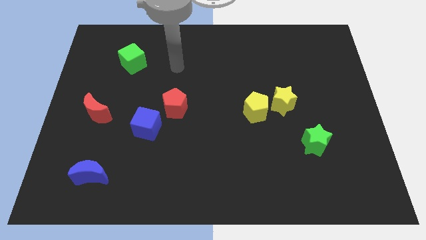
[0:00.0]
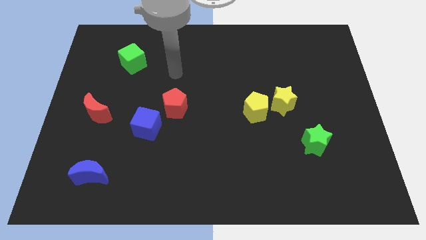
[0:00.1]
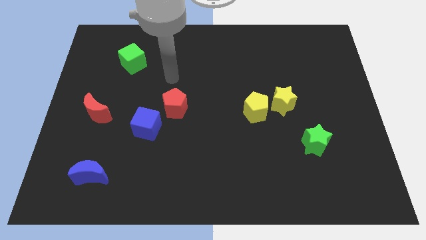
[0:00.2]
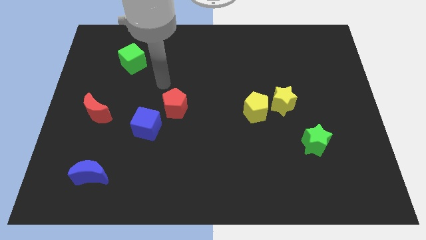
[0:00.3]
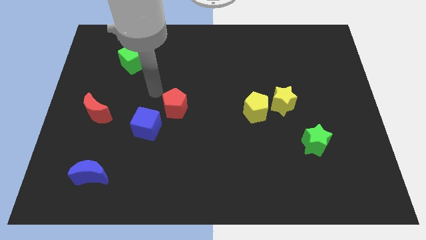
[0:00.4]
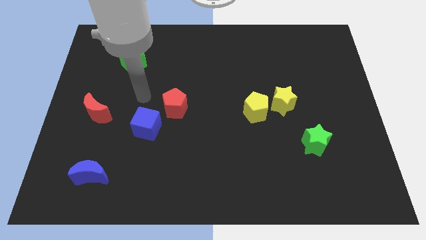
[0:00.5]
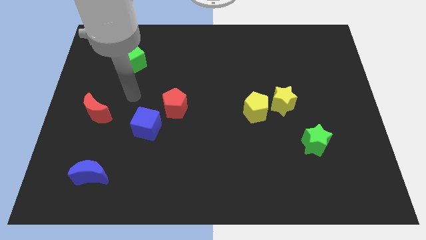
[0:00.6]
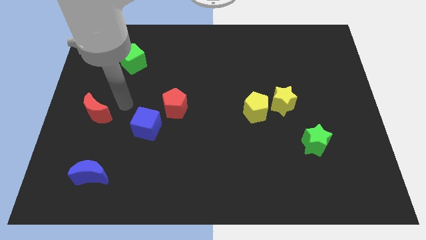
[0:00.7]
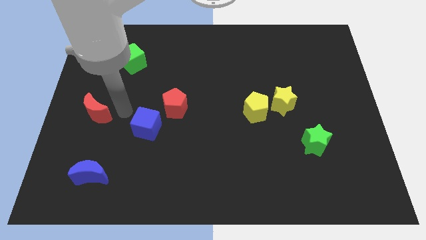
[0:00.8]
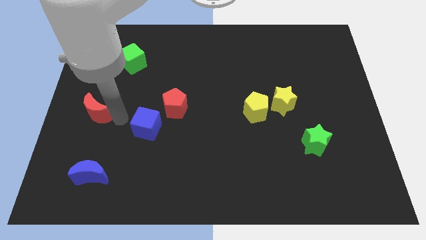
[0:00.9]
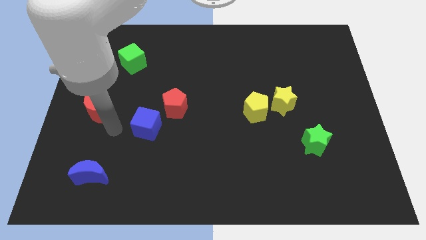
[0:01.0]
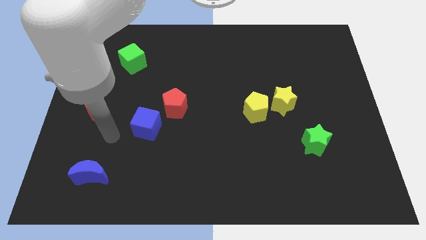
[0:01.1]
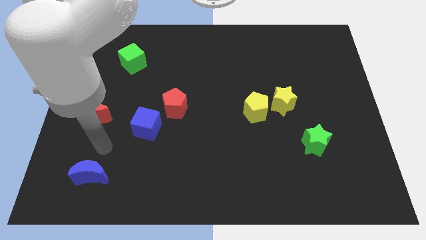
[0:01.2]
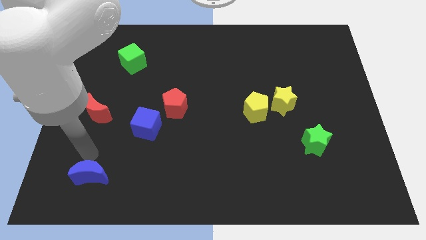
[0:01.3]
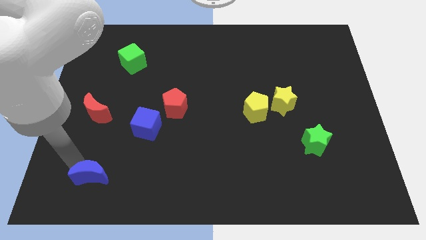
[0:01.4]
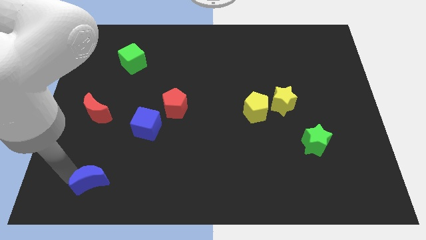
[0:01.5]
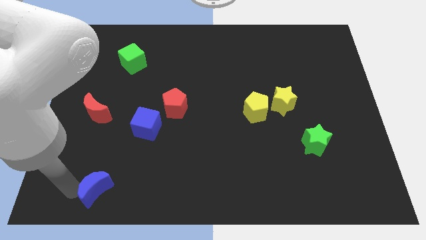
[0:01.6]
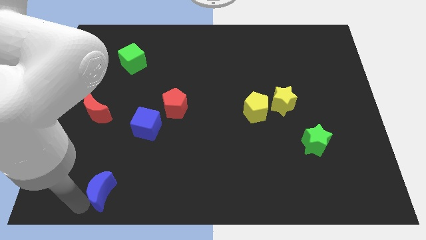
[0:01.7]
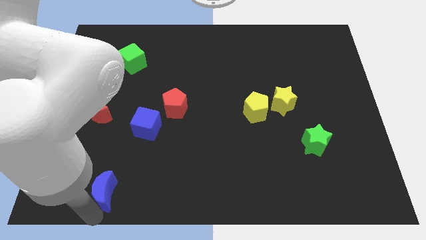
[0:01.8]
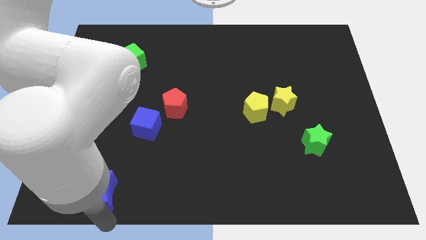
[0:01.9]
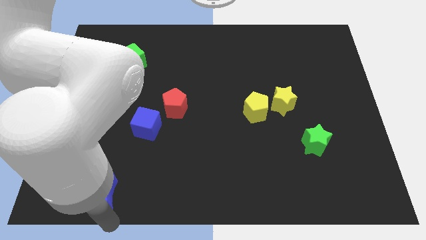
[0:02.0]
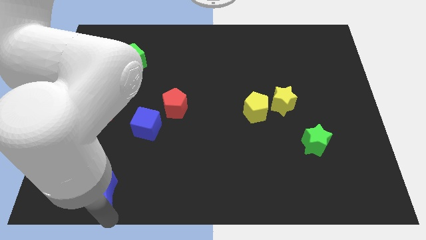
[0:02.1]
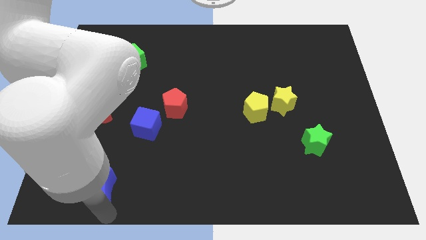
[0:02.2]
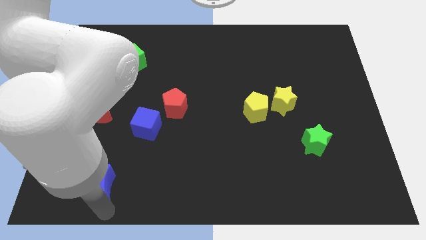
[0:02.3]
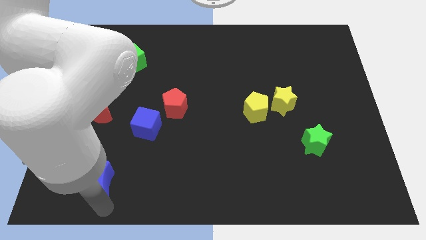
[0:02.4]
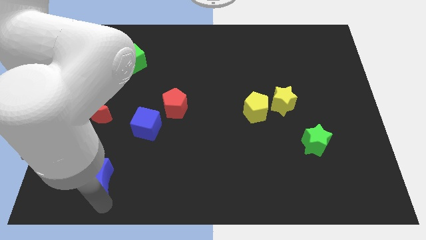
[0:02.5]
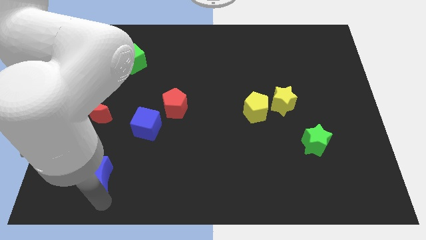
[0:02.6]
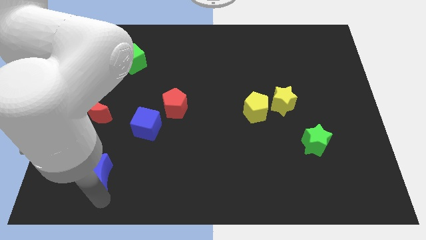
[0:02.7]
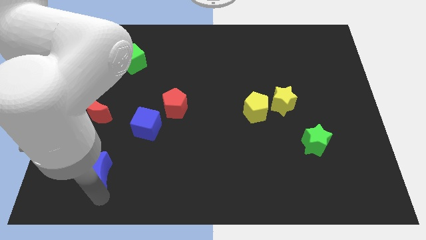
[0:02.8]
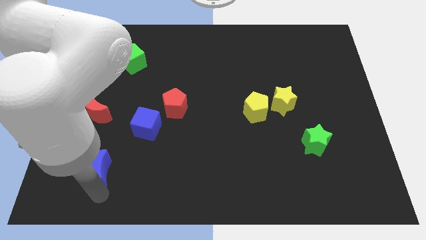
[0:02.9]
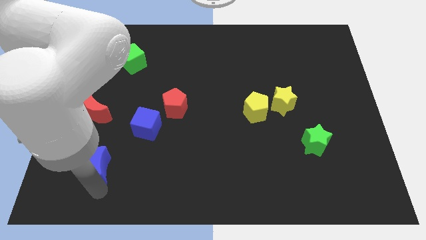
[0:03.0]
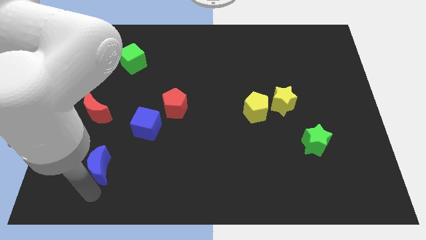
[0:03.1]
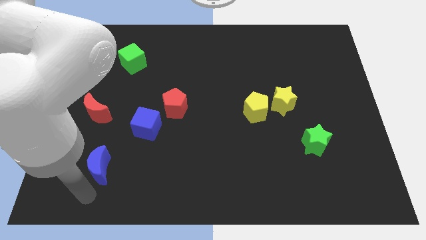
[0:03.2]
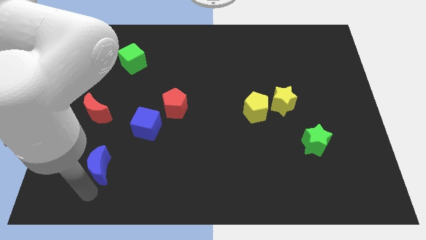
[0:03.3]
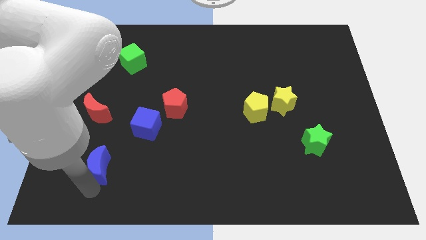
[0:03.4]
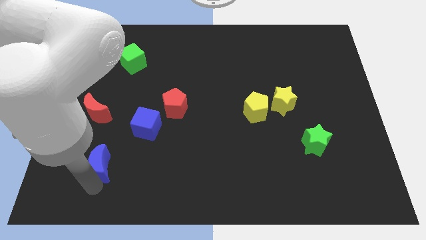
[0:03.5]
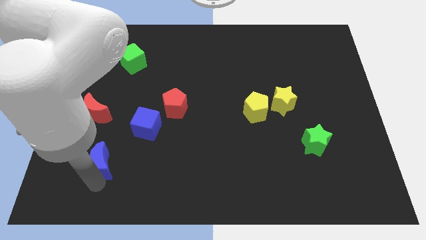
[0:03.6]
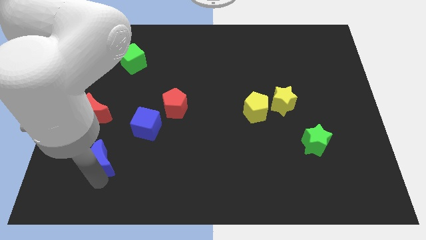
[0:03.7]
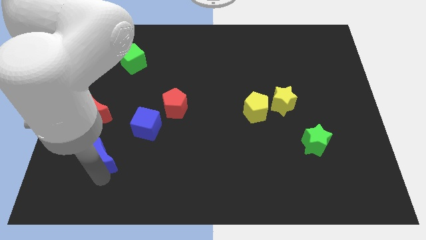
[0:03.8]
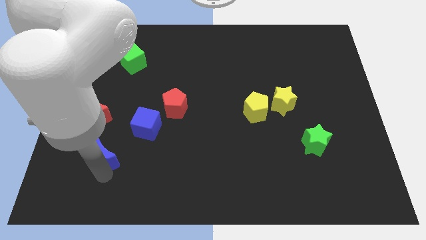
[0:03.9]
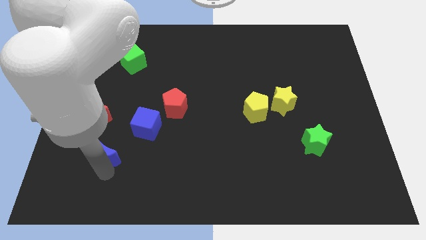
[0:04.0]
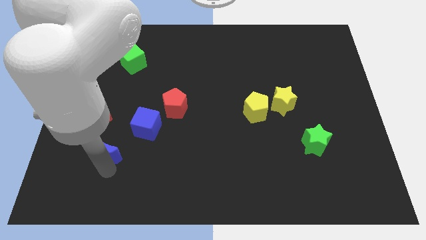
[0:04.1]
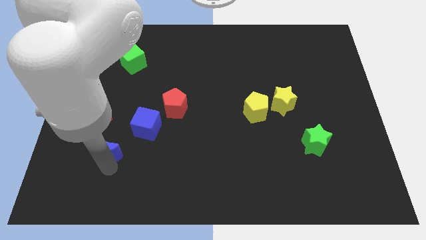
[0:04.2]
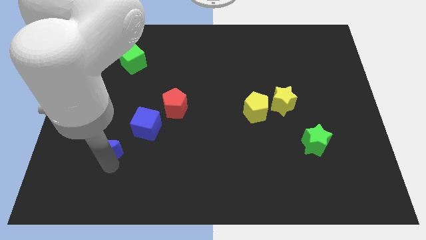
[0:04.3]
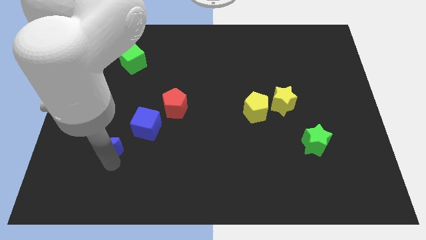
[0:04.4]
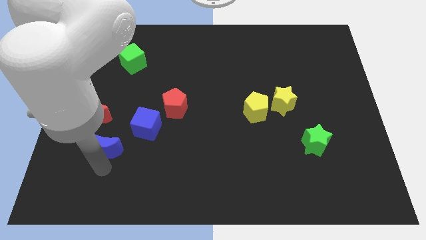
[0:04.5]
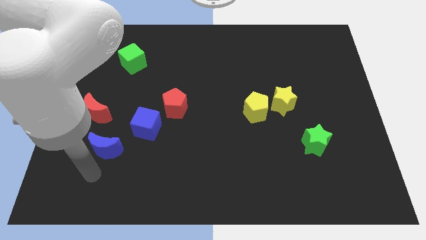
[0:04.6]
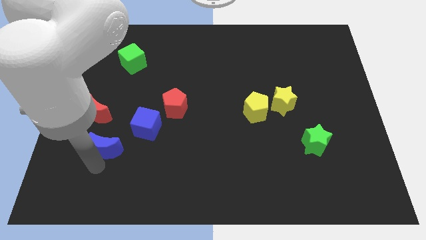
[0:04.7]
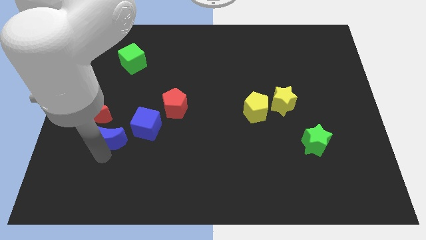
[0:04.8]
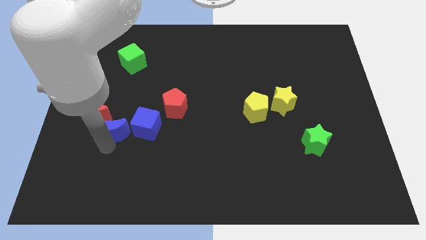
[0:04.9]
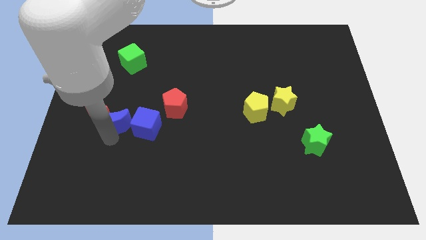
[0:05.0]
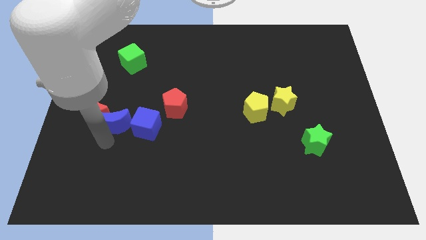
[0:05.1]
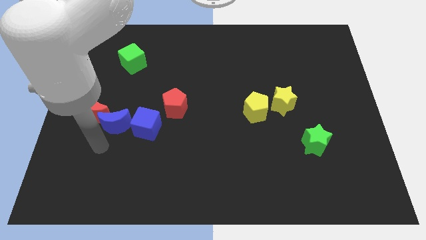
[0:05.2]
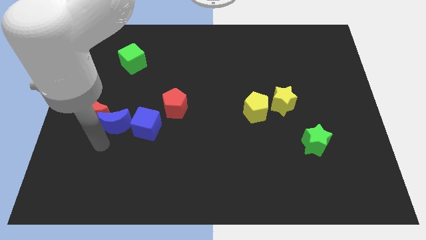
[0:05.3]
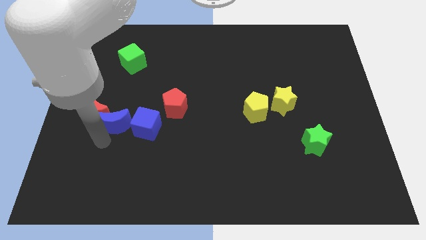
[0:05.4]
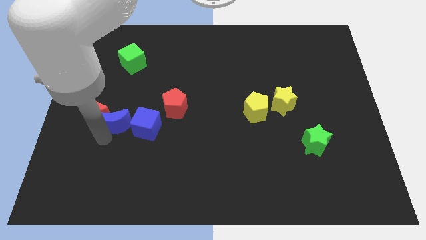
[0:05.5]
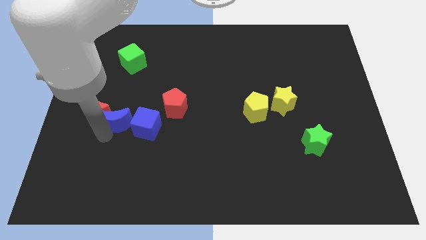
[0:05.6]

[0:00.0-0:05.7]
push the blue moon left of the red pentagon

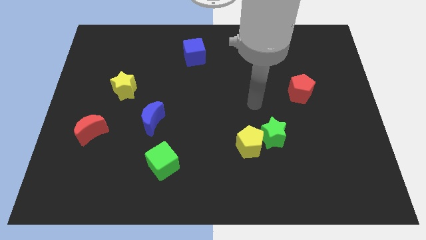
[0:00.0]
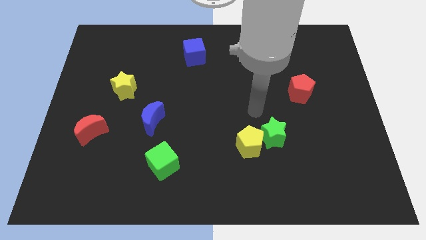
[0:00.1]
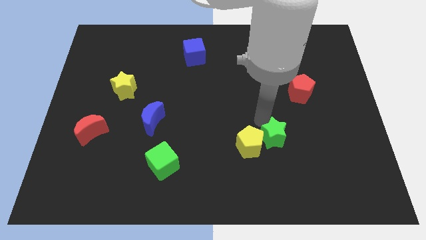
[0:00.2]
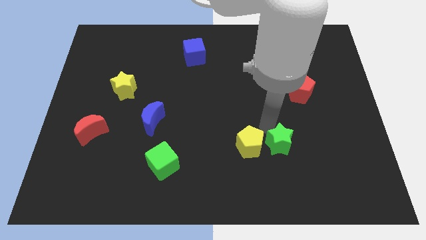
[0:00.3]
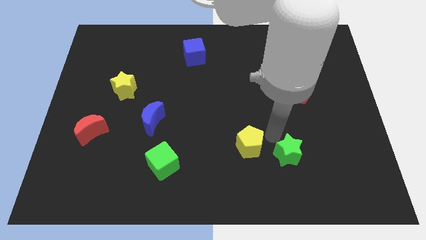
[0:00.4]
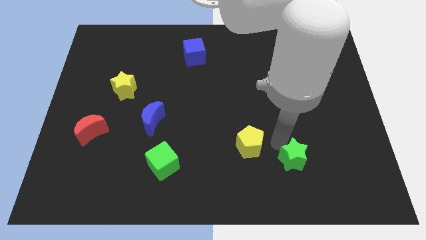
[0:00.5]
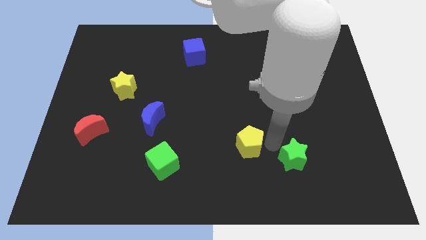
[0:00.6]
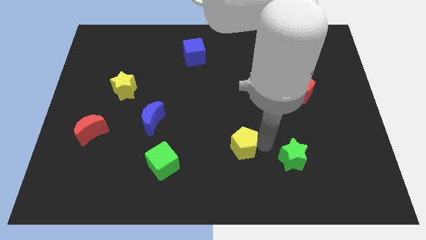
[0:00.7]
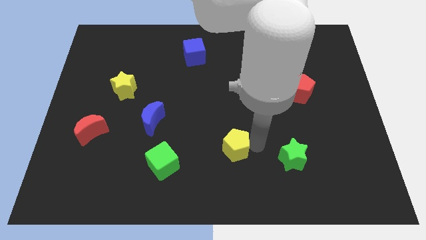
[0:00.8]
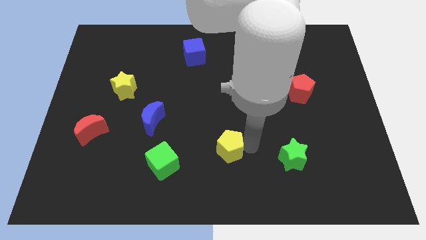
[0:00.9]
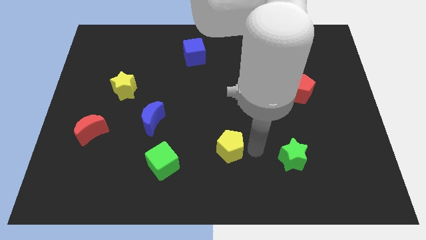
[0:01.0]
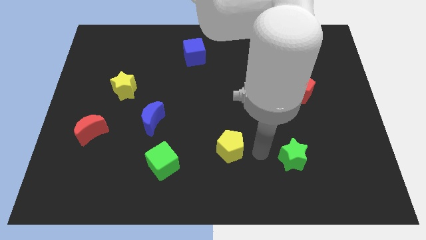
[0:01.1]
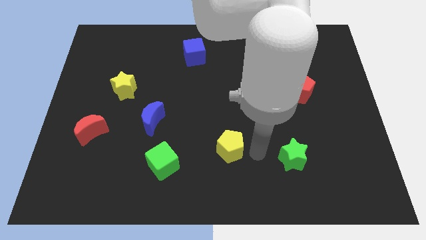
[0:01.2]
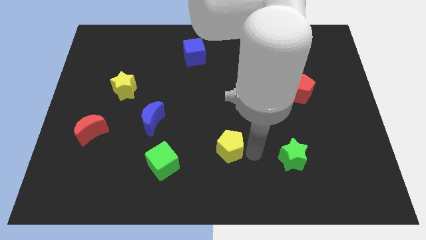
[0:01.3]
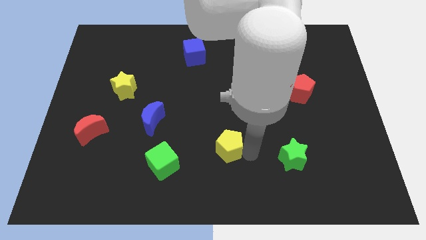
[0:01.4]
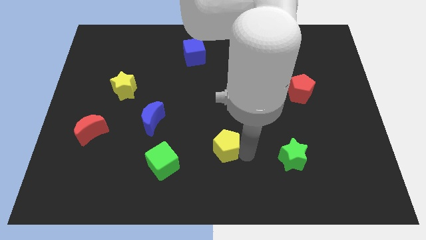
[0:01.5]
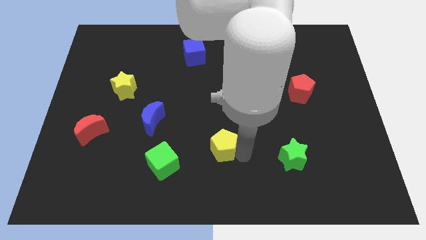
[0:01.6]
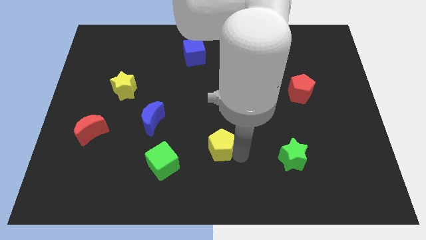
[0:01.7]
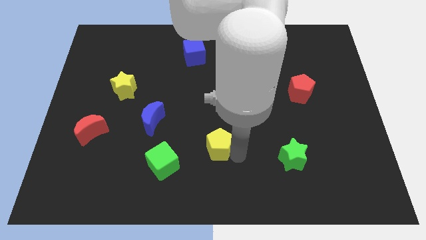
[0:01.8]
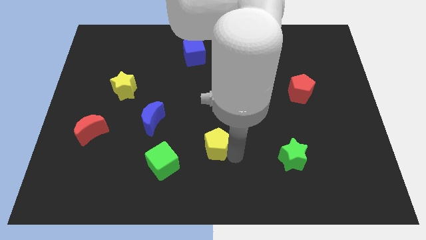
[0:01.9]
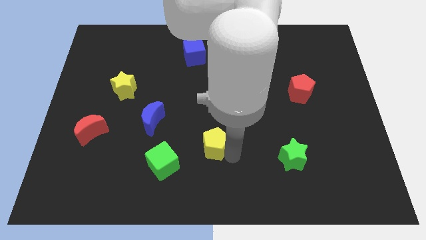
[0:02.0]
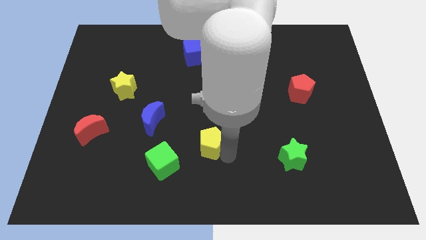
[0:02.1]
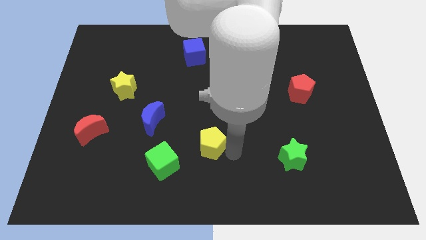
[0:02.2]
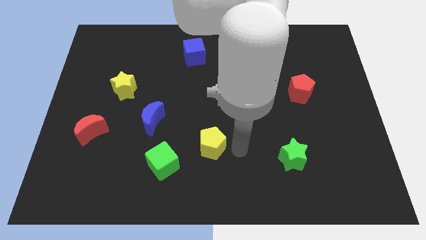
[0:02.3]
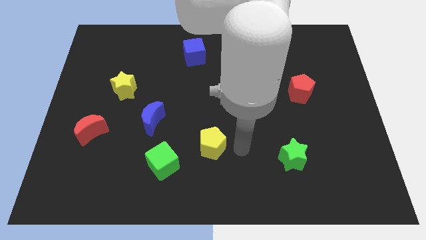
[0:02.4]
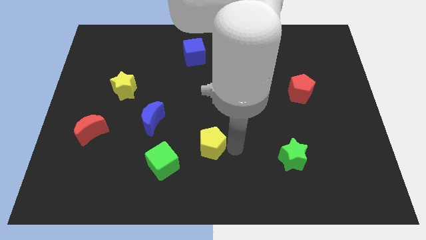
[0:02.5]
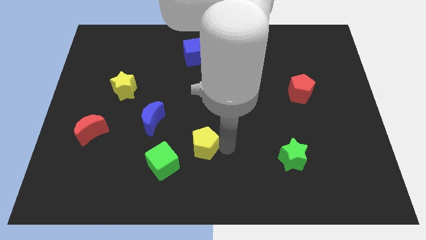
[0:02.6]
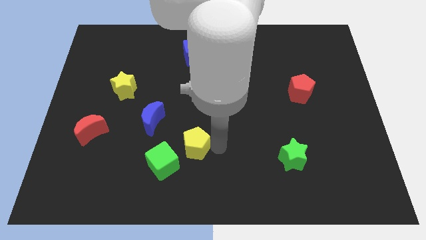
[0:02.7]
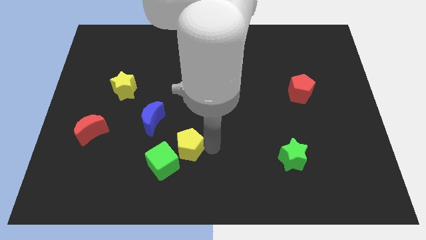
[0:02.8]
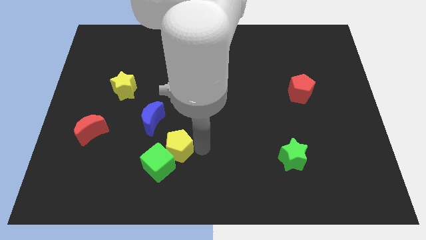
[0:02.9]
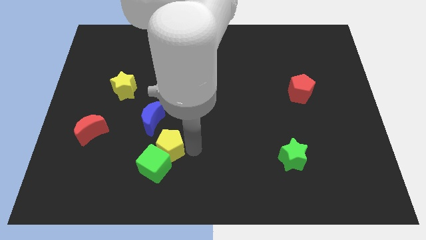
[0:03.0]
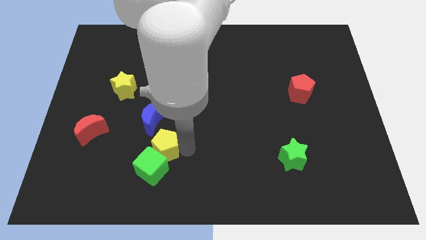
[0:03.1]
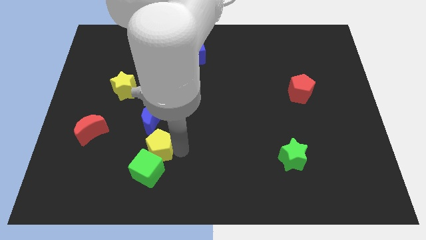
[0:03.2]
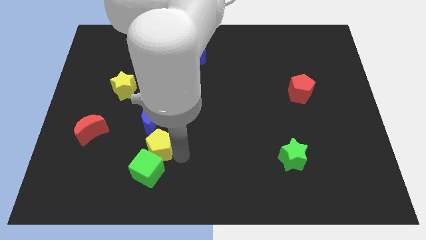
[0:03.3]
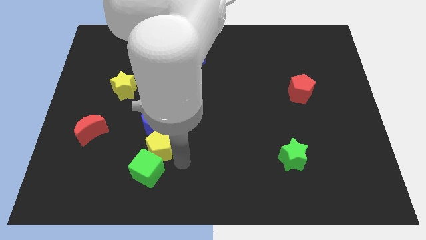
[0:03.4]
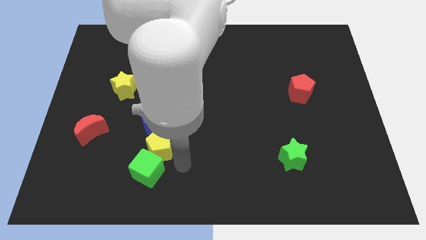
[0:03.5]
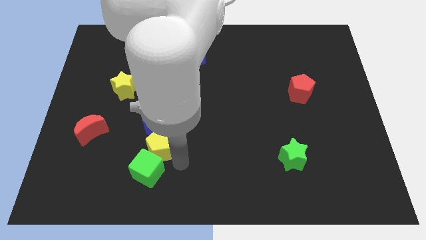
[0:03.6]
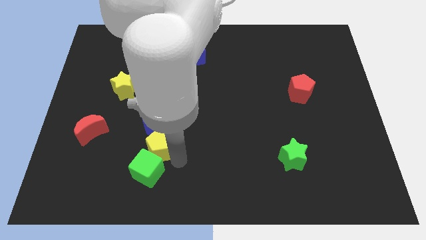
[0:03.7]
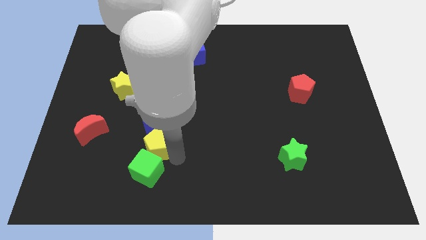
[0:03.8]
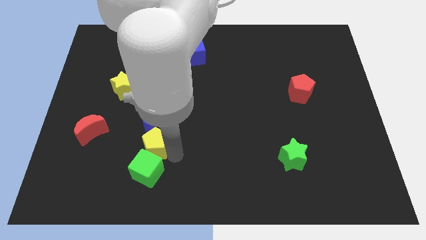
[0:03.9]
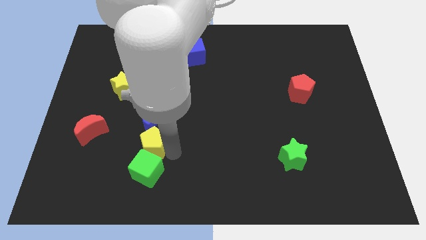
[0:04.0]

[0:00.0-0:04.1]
put the yellow pentagon just right of the red moon
